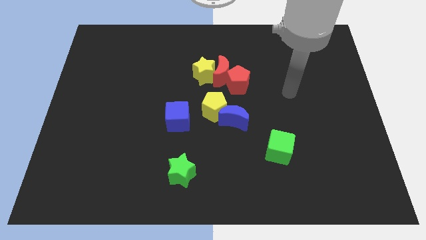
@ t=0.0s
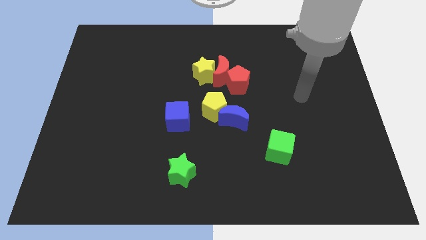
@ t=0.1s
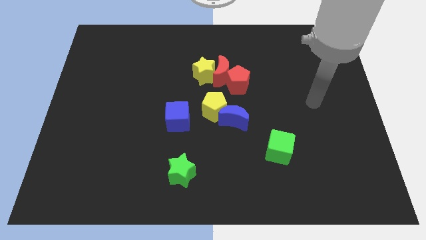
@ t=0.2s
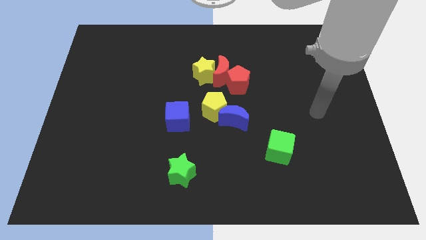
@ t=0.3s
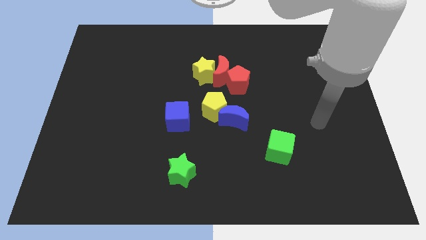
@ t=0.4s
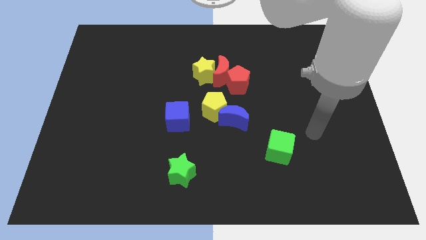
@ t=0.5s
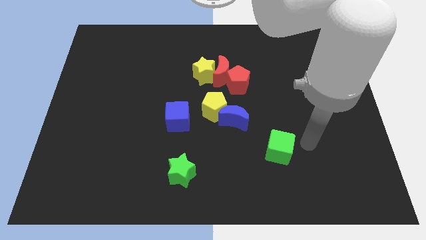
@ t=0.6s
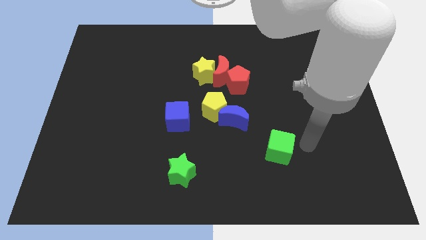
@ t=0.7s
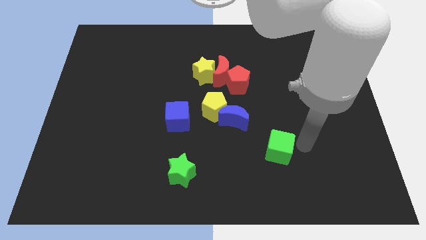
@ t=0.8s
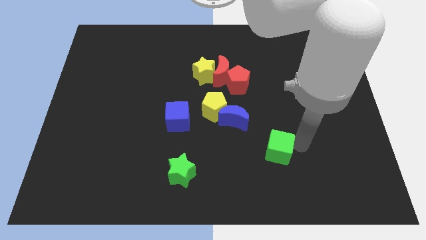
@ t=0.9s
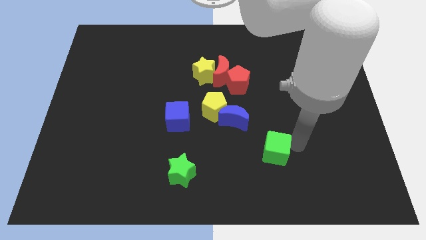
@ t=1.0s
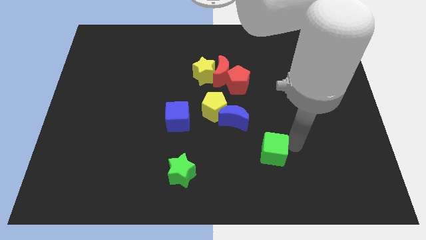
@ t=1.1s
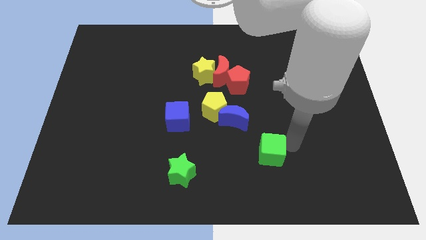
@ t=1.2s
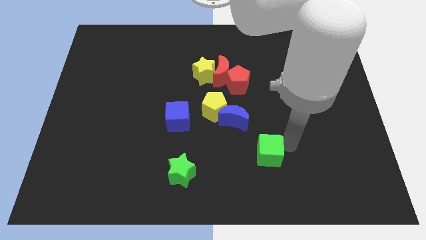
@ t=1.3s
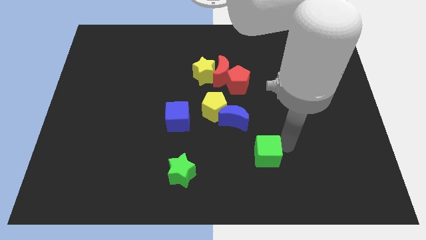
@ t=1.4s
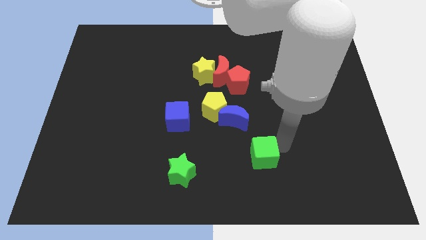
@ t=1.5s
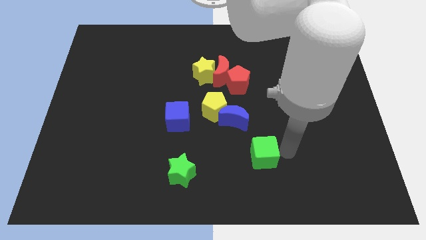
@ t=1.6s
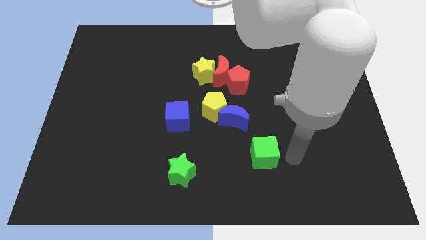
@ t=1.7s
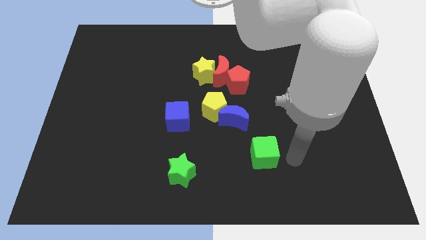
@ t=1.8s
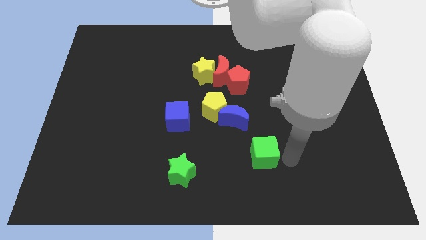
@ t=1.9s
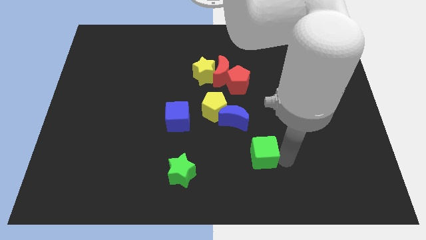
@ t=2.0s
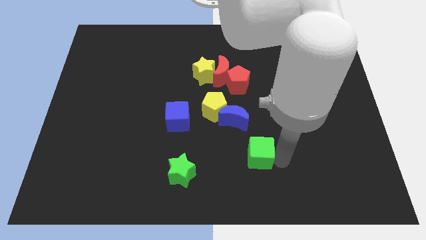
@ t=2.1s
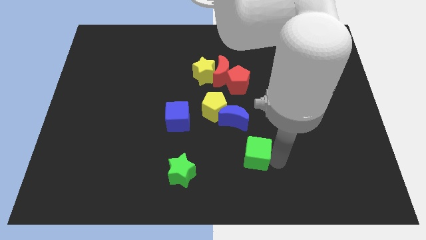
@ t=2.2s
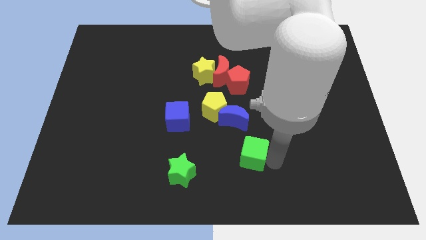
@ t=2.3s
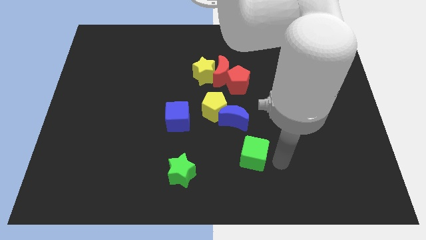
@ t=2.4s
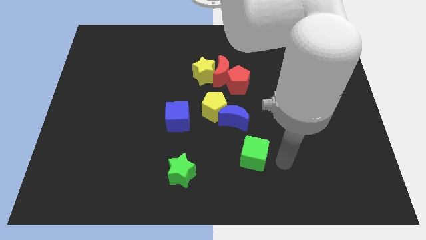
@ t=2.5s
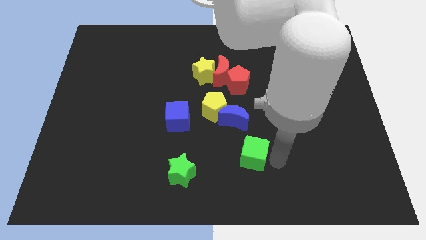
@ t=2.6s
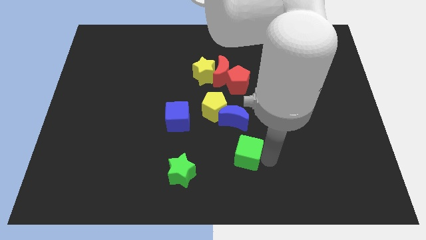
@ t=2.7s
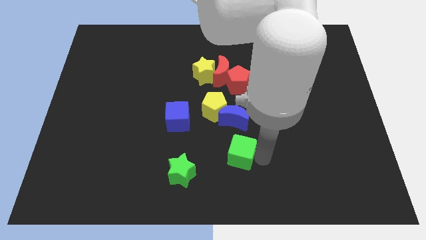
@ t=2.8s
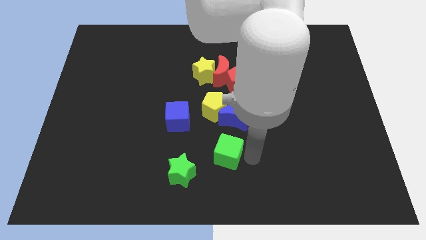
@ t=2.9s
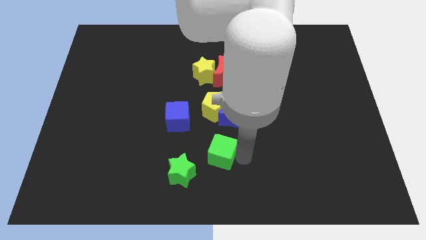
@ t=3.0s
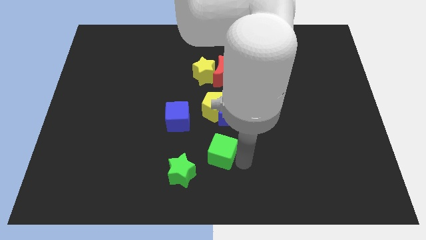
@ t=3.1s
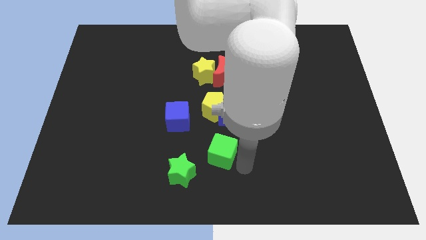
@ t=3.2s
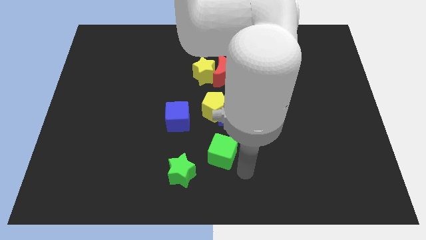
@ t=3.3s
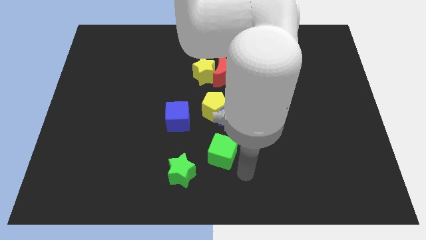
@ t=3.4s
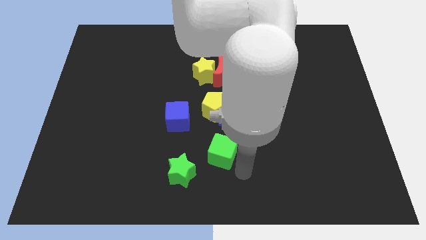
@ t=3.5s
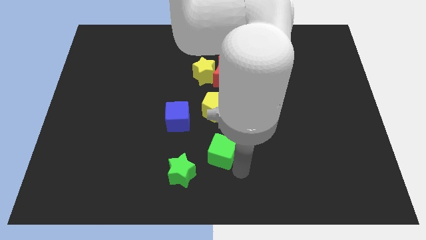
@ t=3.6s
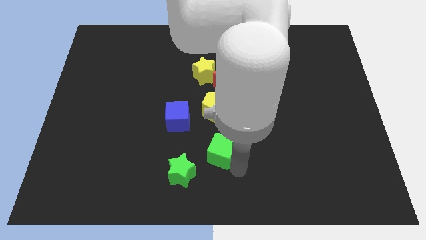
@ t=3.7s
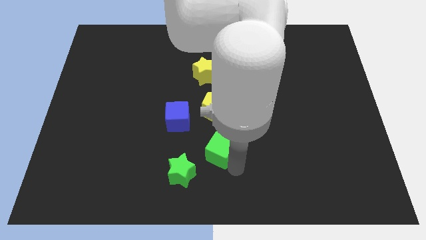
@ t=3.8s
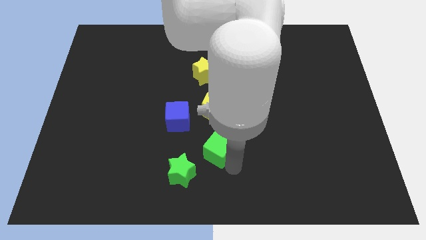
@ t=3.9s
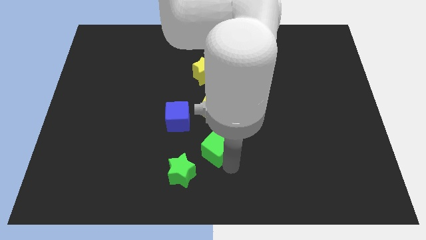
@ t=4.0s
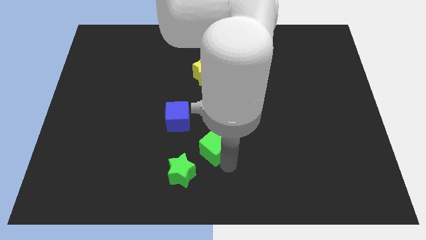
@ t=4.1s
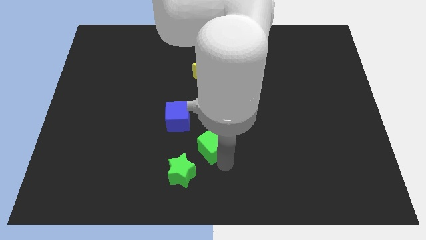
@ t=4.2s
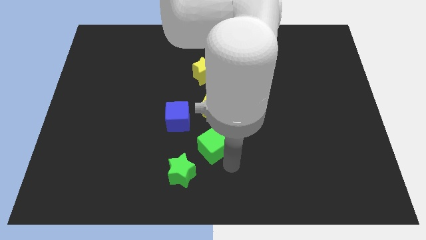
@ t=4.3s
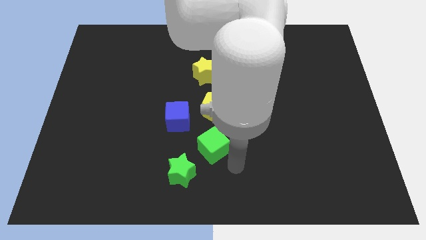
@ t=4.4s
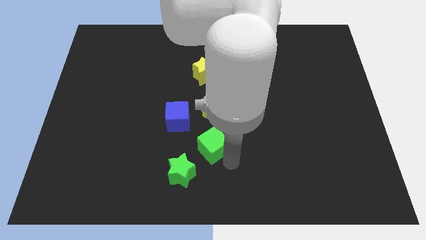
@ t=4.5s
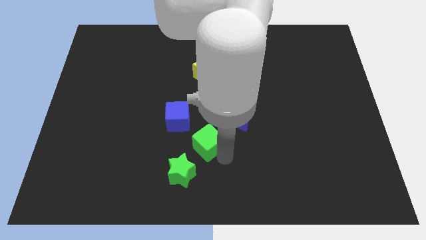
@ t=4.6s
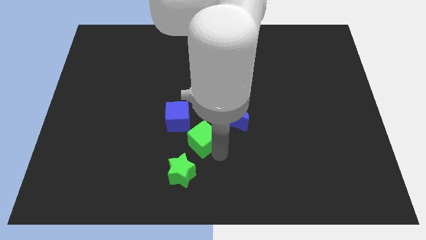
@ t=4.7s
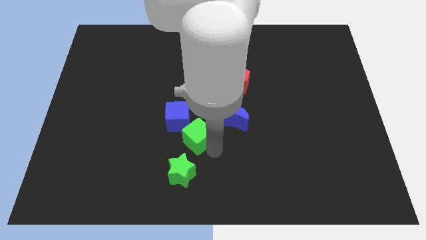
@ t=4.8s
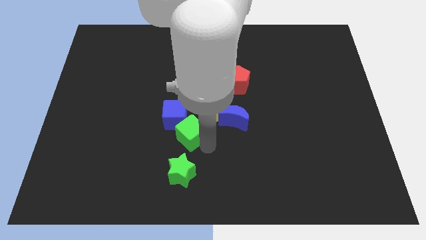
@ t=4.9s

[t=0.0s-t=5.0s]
put the green cube to the blue cube

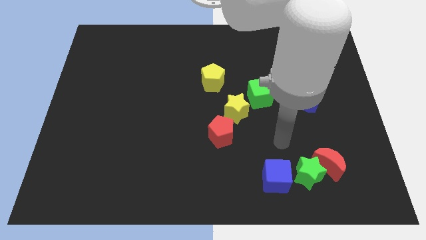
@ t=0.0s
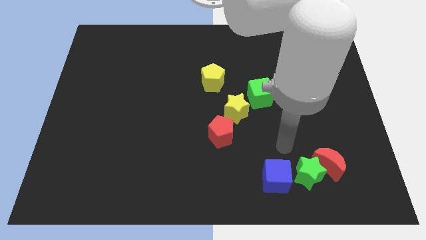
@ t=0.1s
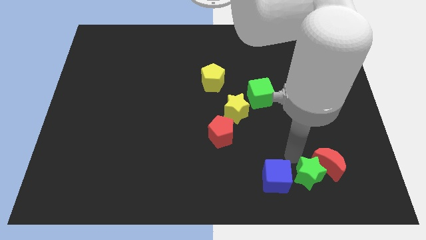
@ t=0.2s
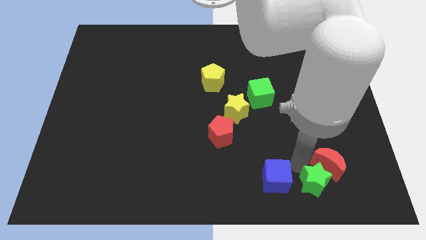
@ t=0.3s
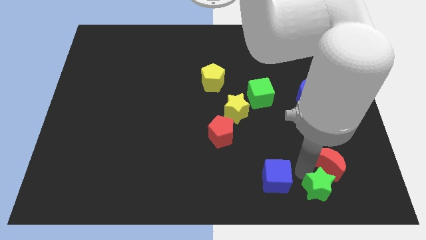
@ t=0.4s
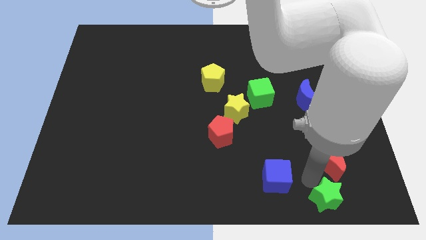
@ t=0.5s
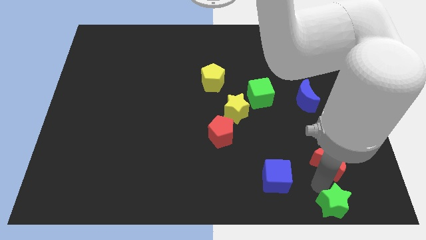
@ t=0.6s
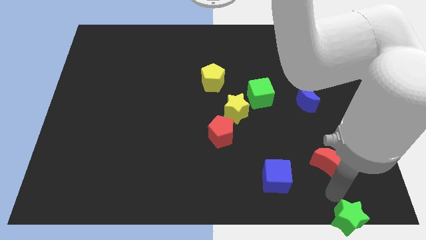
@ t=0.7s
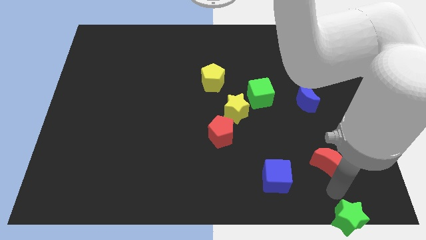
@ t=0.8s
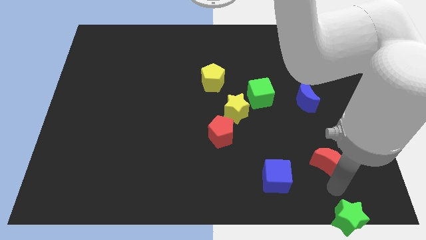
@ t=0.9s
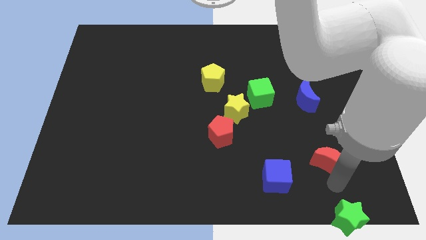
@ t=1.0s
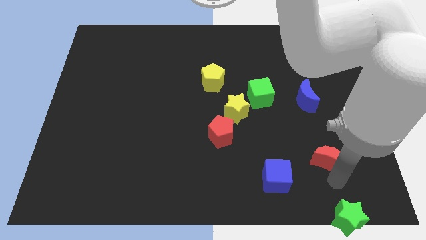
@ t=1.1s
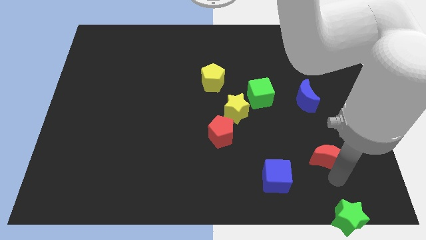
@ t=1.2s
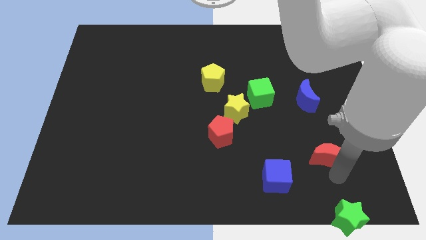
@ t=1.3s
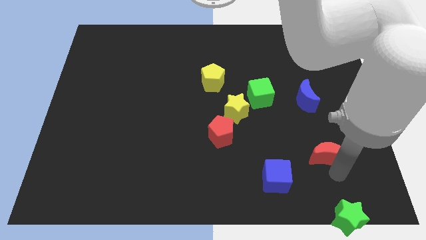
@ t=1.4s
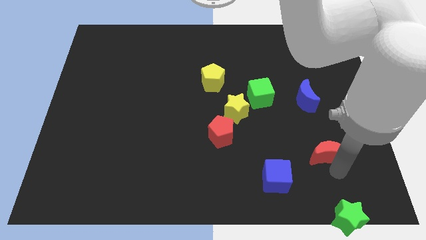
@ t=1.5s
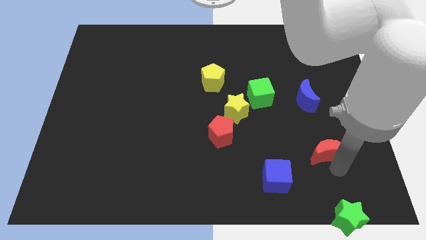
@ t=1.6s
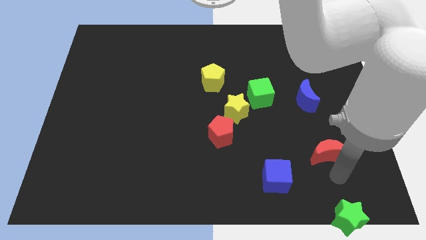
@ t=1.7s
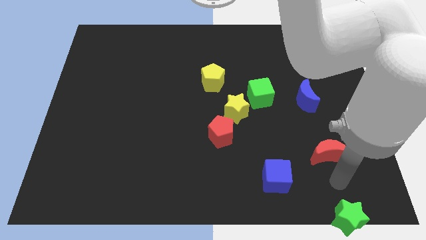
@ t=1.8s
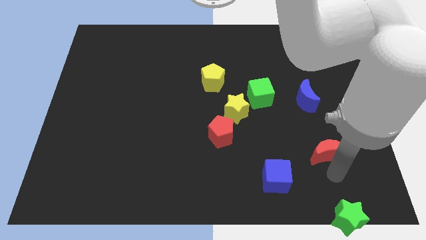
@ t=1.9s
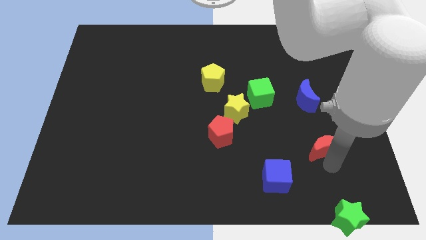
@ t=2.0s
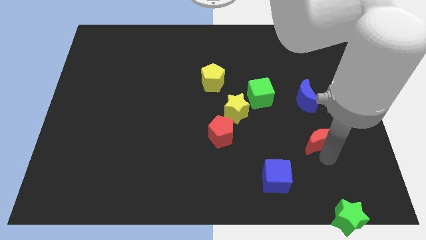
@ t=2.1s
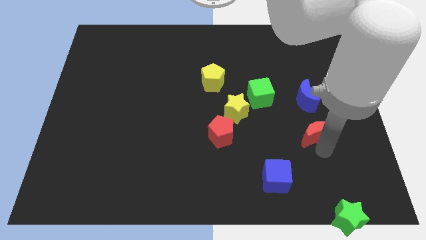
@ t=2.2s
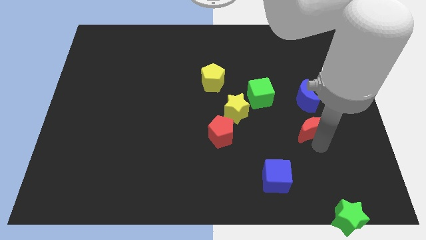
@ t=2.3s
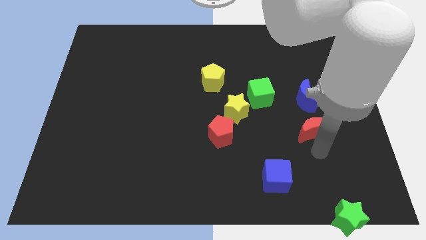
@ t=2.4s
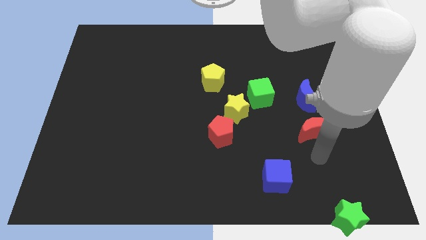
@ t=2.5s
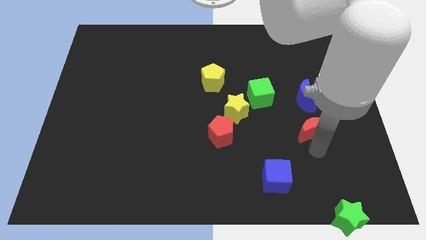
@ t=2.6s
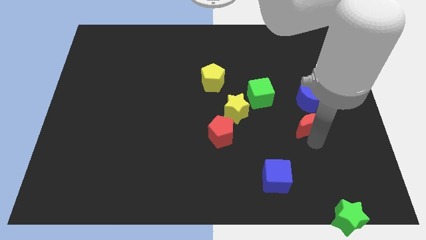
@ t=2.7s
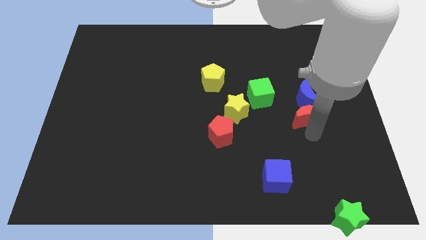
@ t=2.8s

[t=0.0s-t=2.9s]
push the red moon close to the blue moon

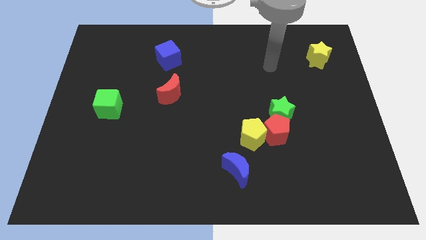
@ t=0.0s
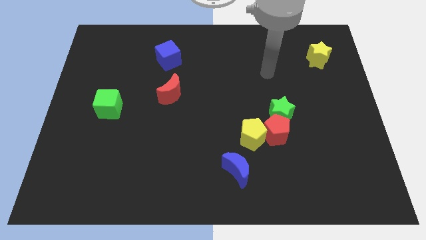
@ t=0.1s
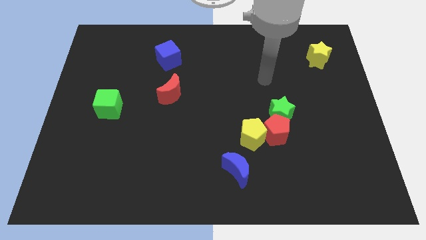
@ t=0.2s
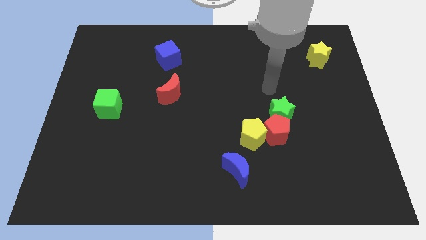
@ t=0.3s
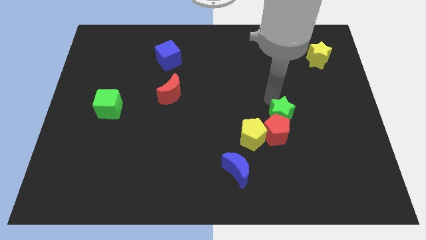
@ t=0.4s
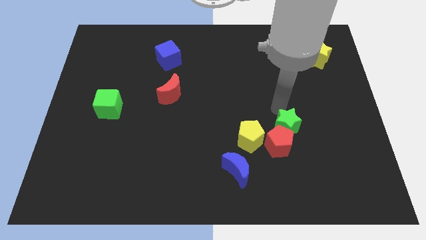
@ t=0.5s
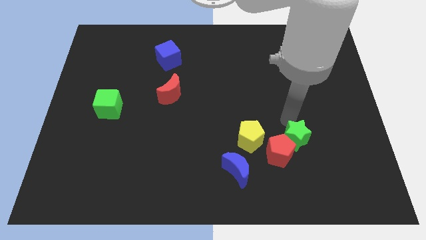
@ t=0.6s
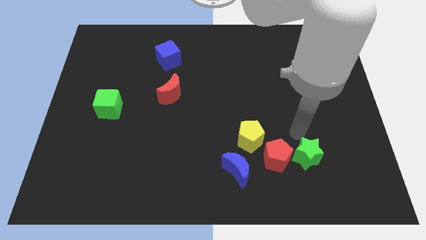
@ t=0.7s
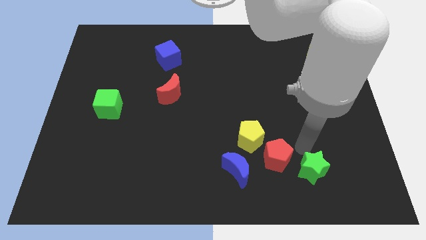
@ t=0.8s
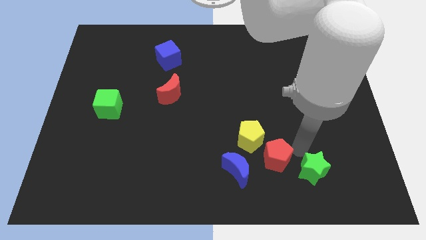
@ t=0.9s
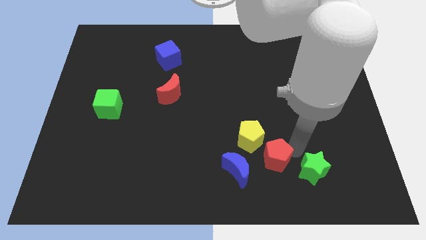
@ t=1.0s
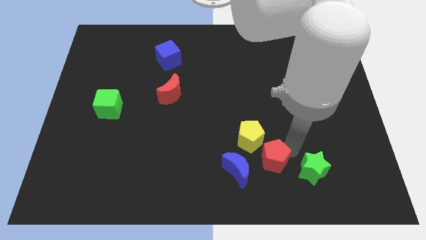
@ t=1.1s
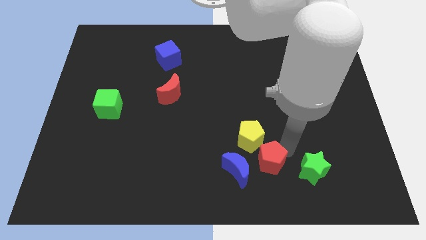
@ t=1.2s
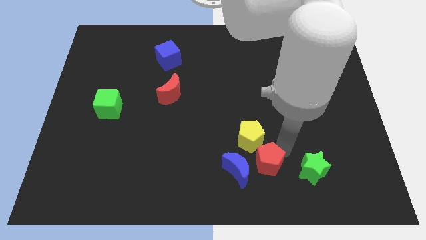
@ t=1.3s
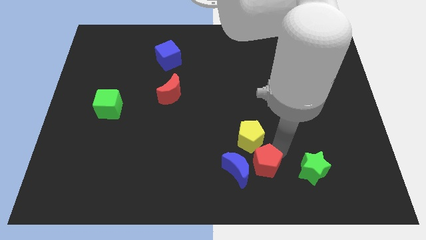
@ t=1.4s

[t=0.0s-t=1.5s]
push the red pentagon close to the blue moon
